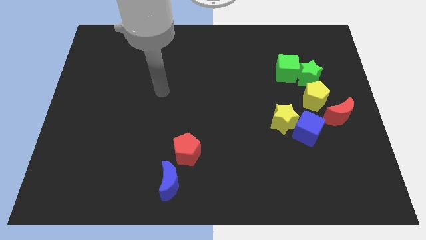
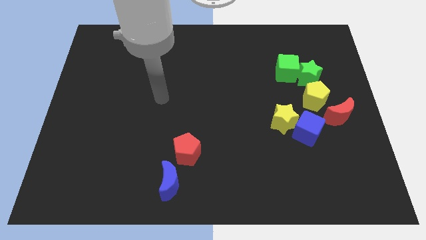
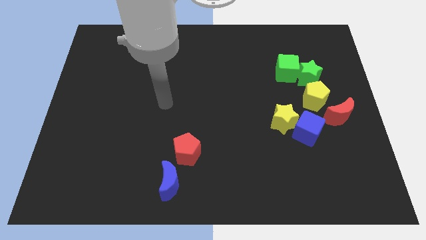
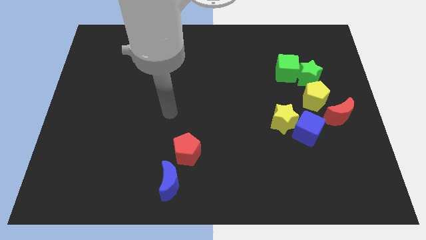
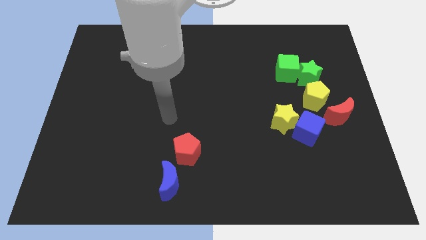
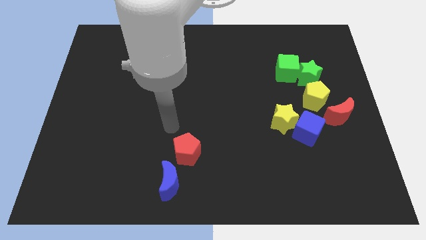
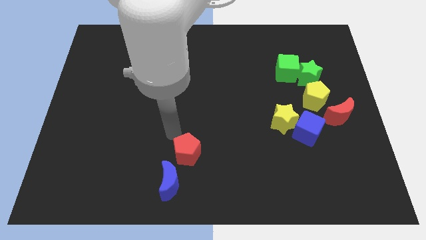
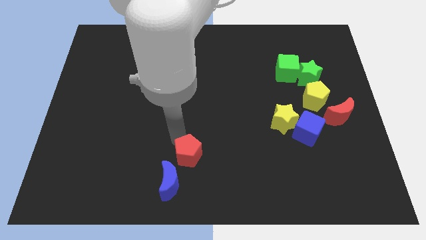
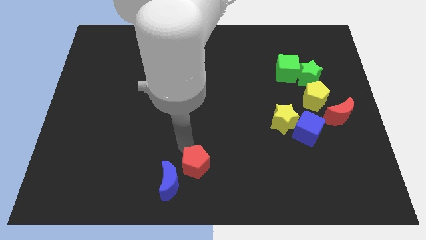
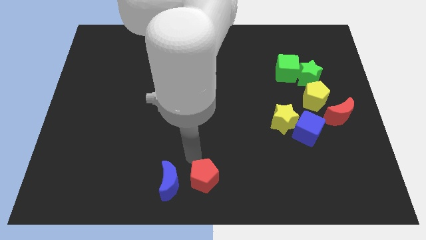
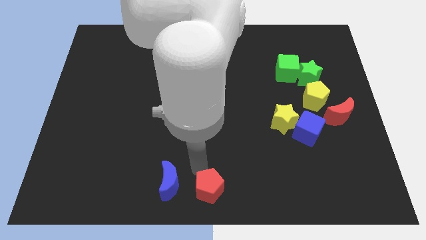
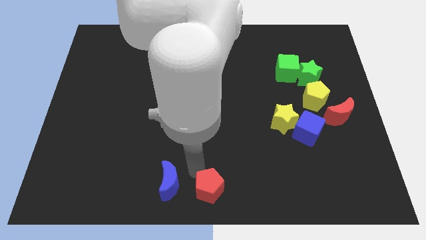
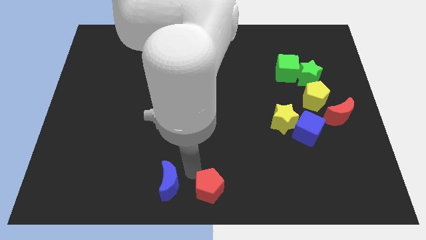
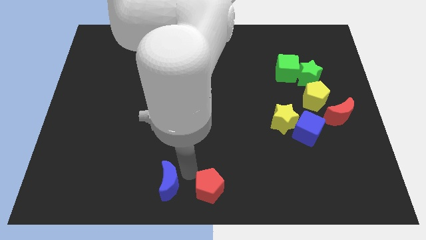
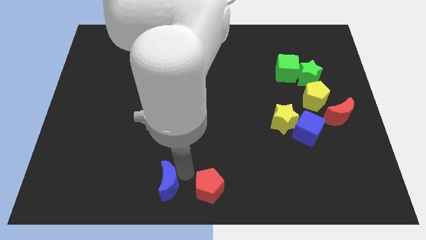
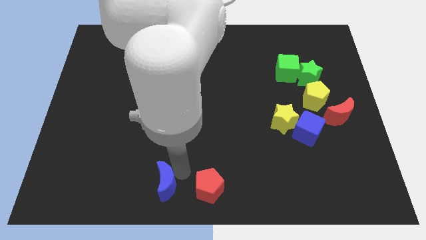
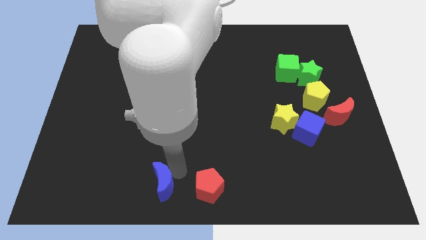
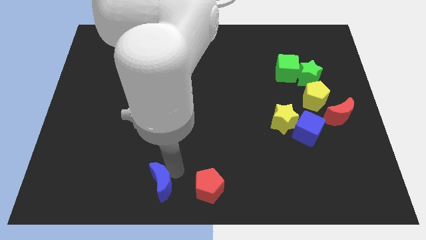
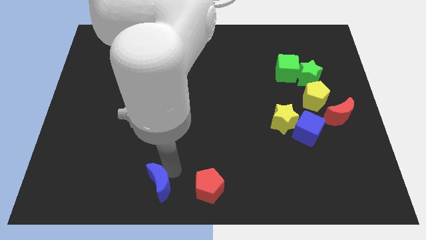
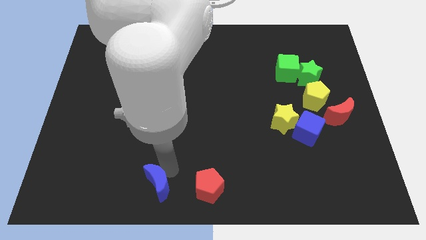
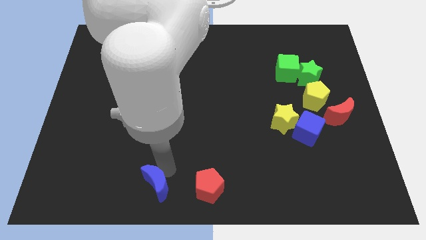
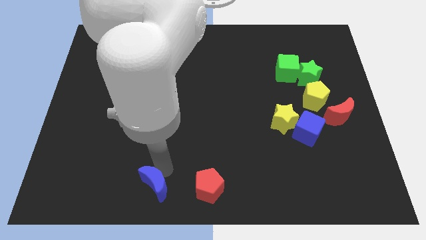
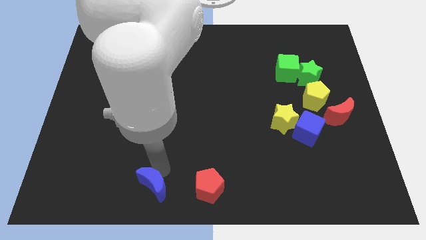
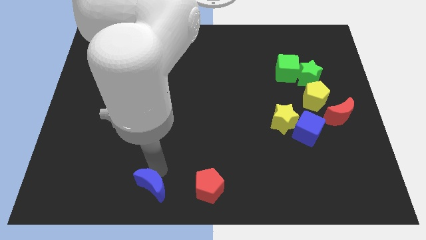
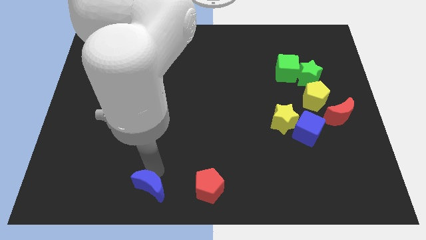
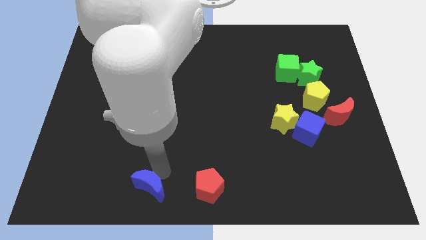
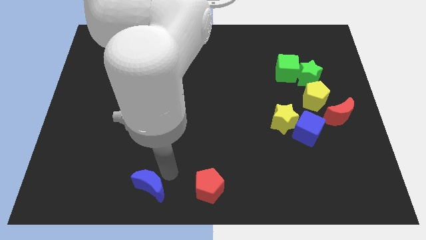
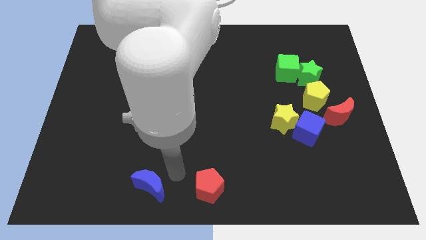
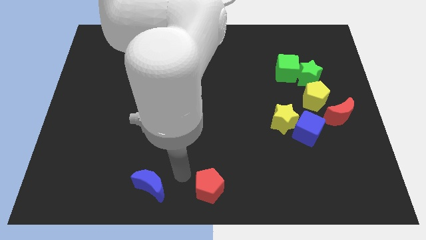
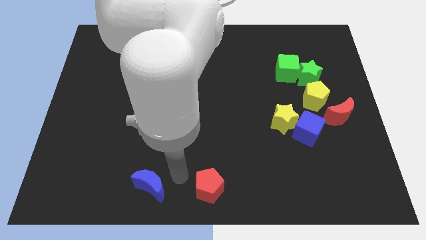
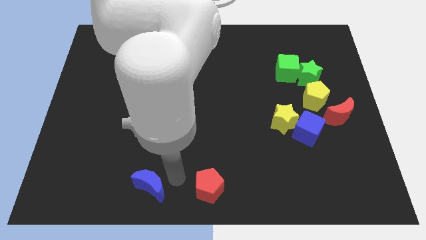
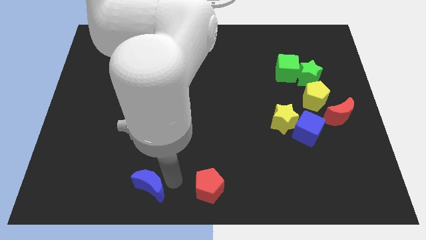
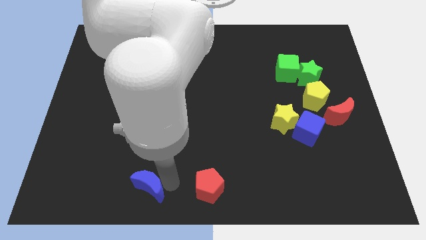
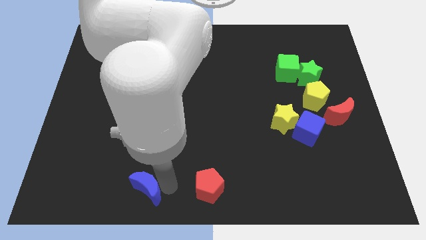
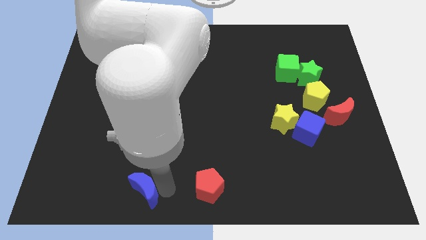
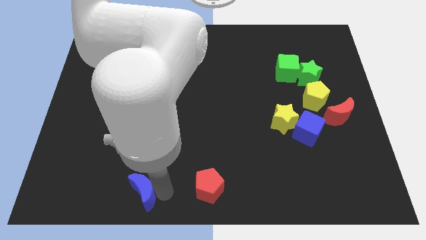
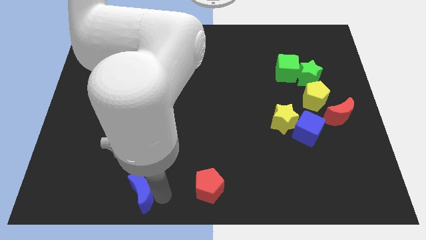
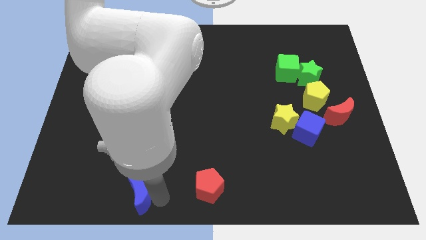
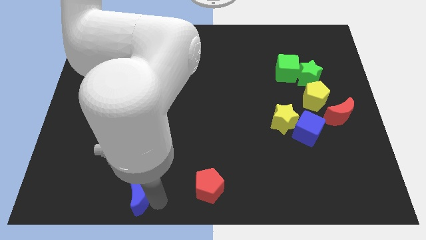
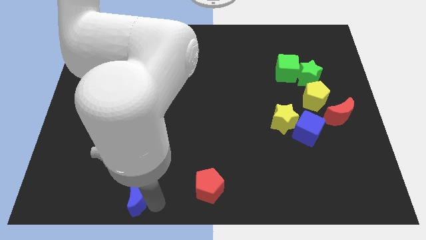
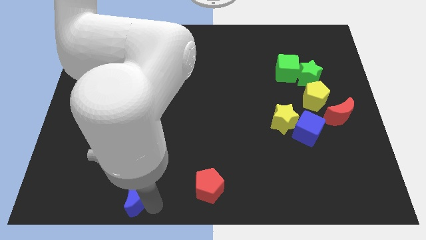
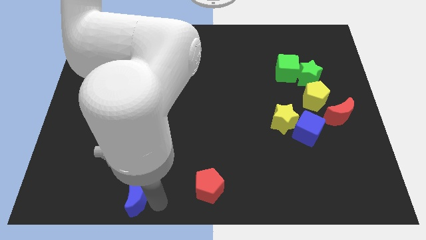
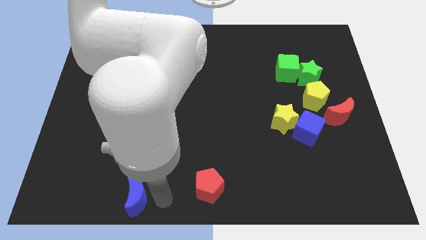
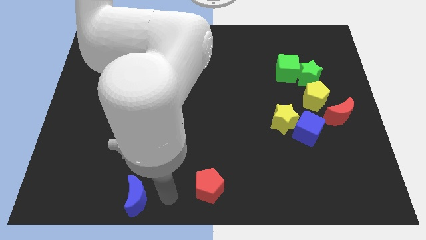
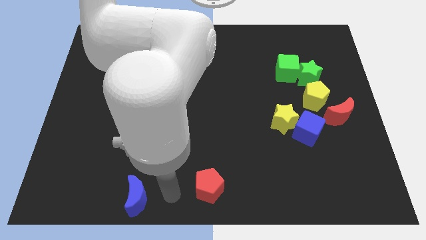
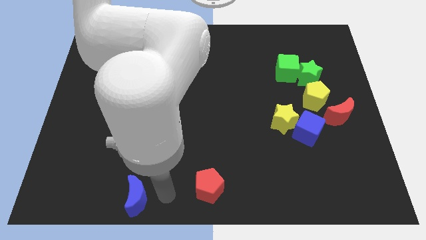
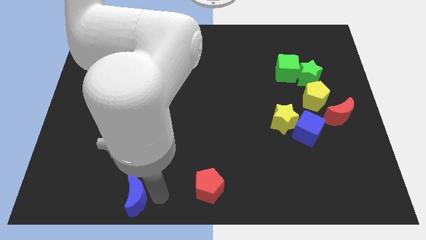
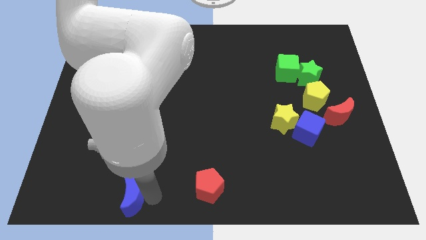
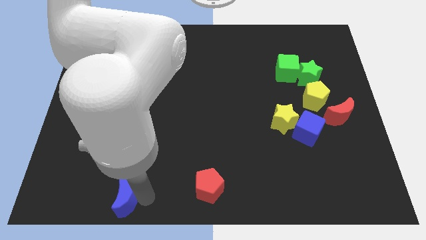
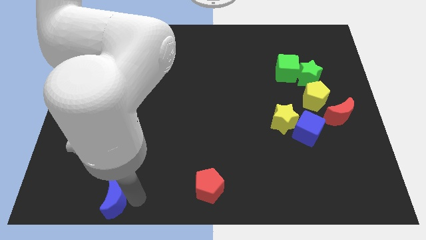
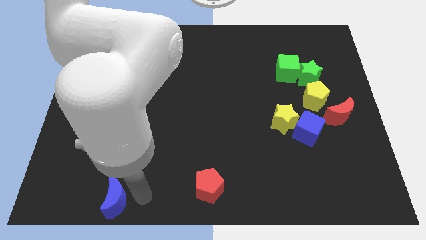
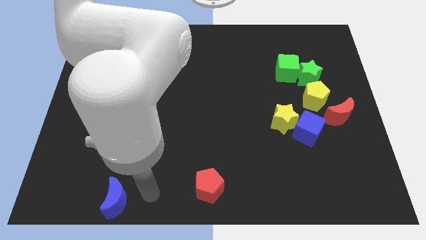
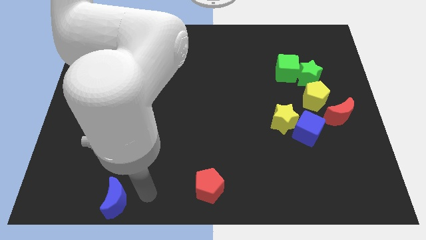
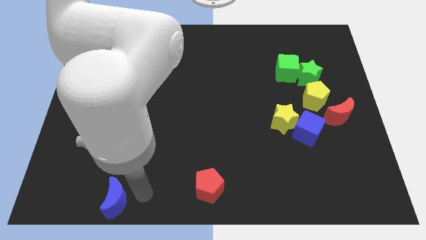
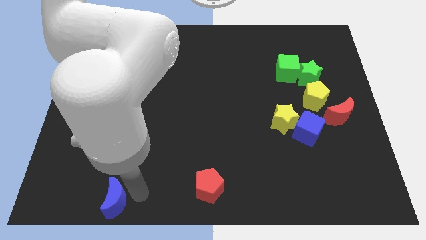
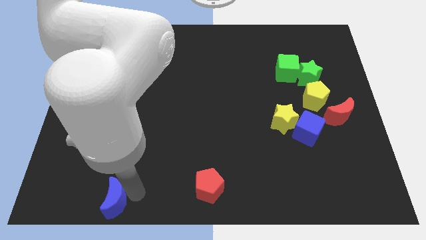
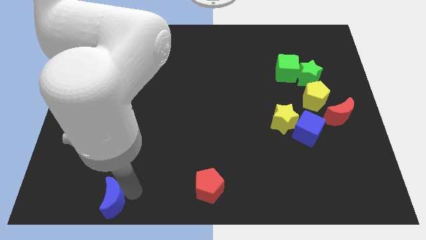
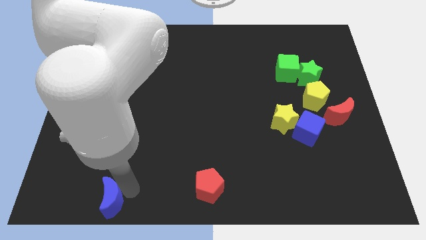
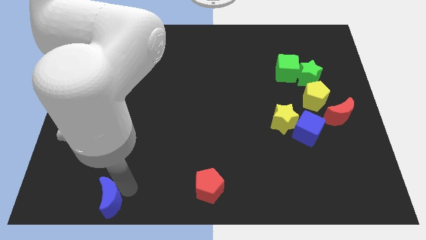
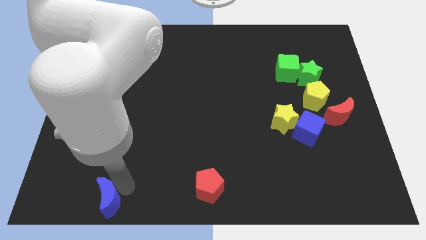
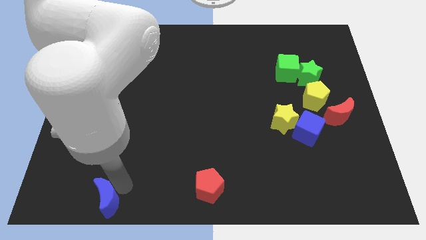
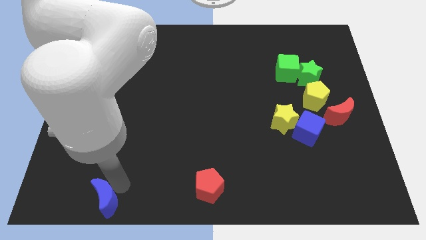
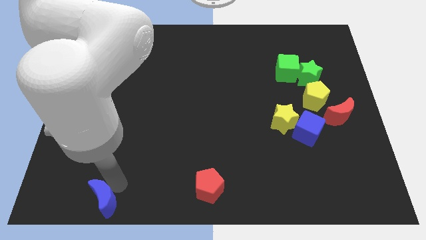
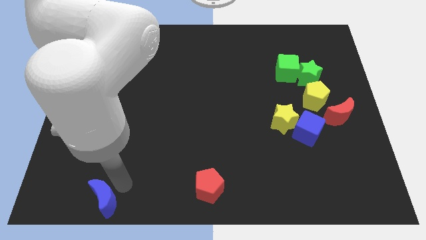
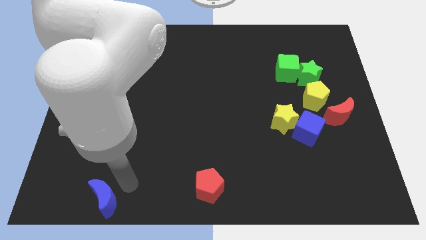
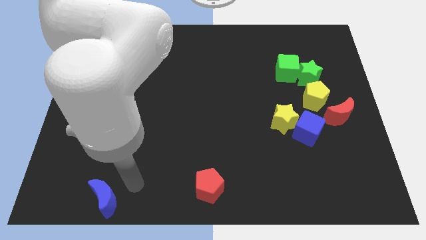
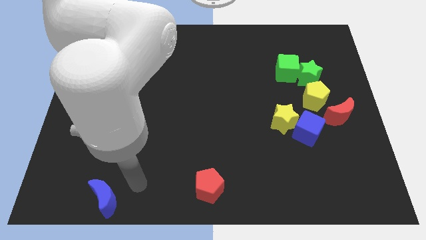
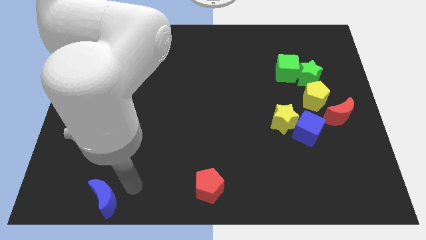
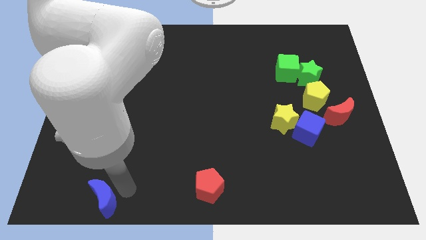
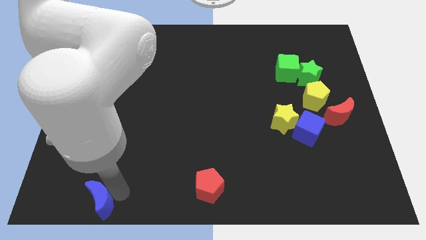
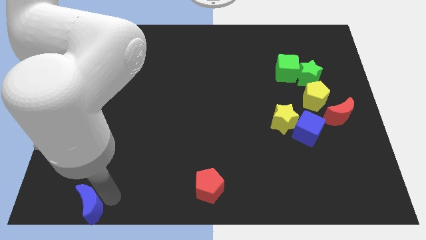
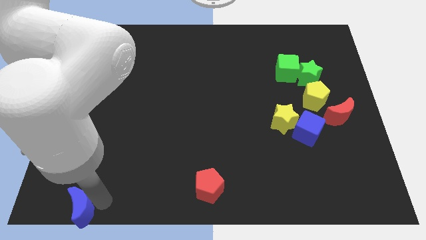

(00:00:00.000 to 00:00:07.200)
slide the blue moon to the bottom left of the board
